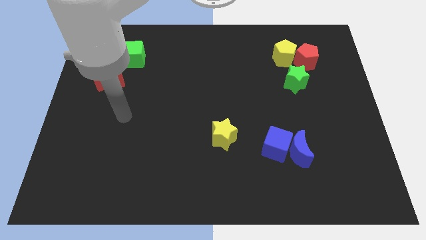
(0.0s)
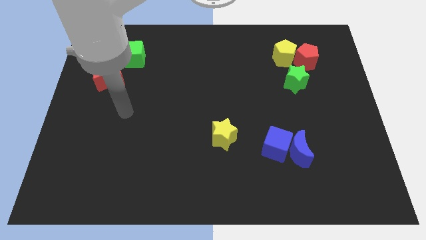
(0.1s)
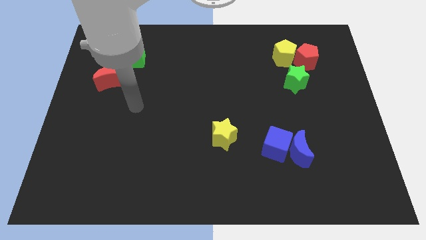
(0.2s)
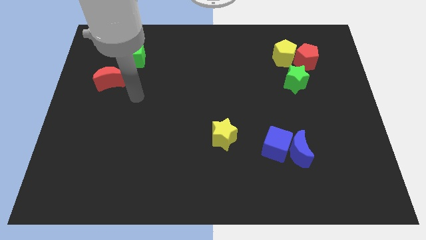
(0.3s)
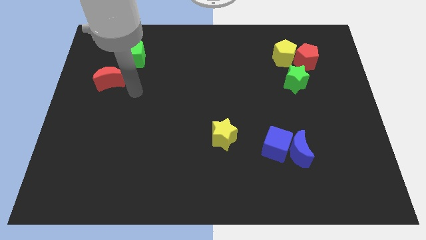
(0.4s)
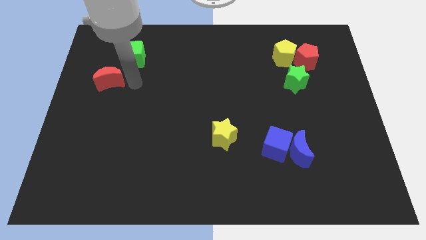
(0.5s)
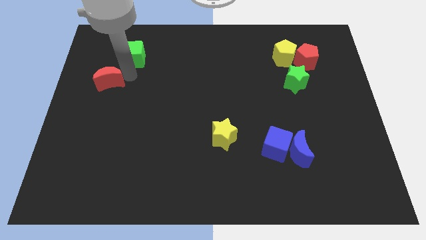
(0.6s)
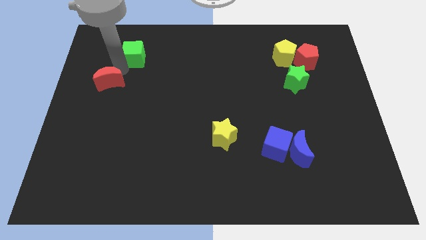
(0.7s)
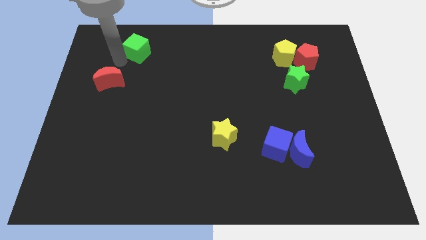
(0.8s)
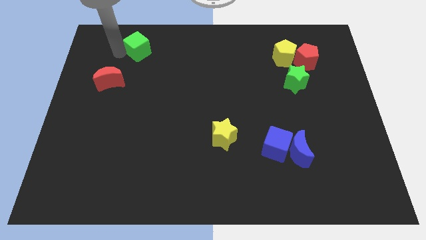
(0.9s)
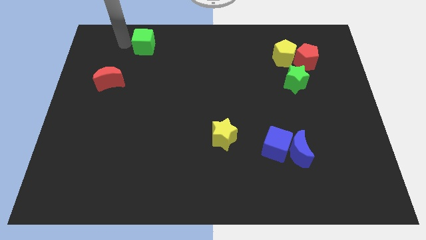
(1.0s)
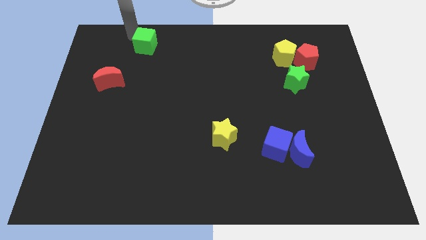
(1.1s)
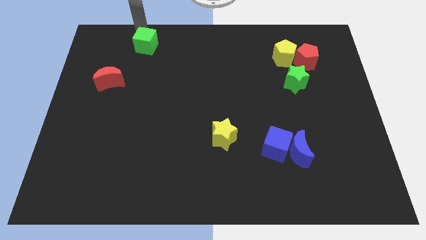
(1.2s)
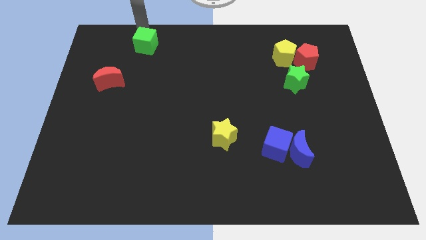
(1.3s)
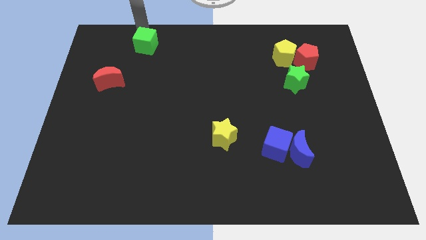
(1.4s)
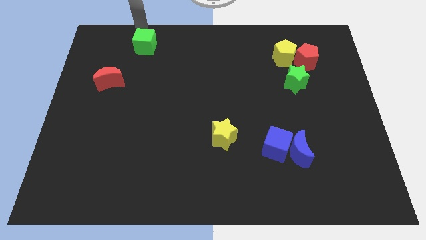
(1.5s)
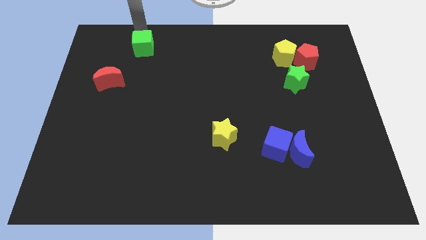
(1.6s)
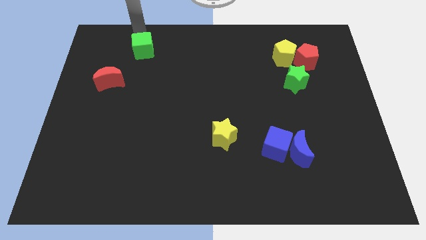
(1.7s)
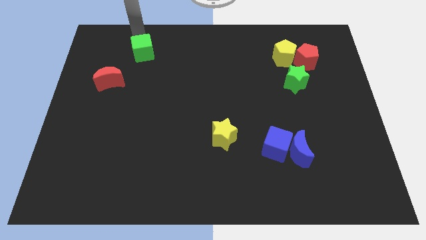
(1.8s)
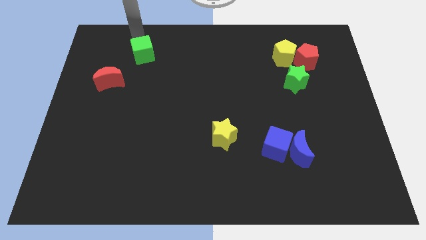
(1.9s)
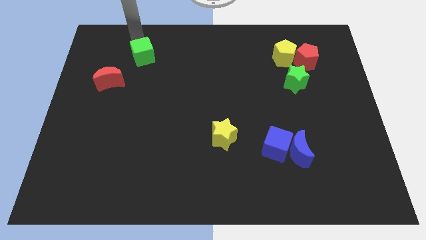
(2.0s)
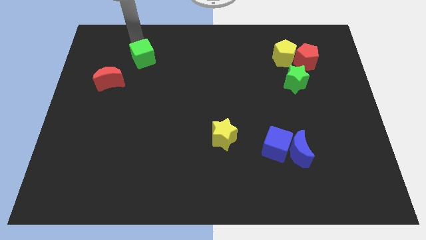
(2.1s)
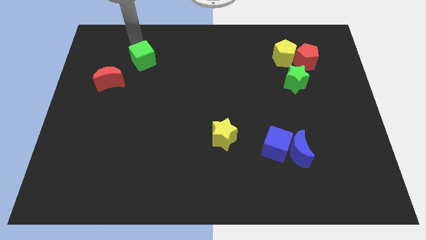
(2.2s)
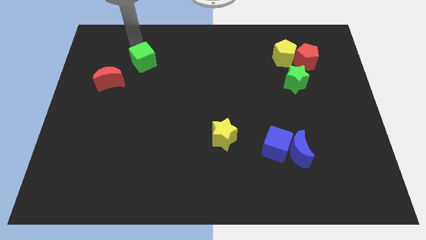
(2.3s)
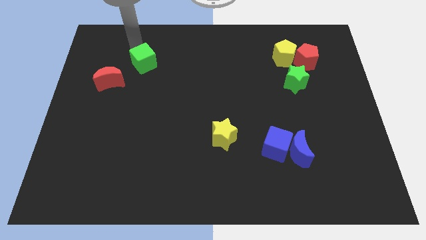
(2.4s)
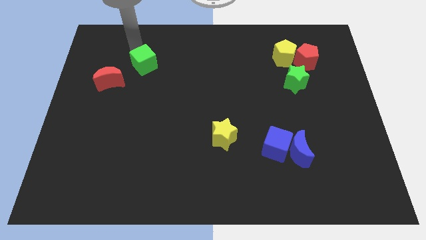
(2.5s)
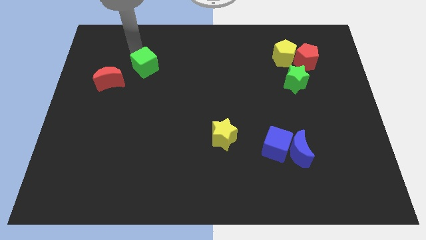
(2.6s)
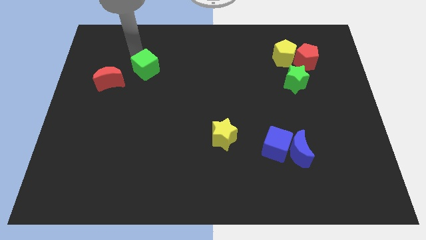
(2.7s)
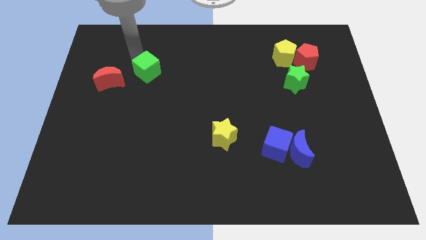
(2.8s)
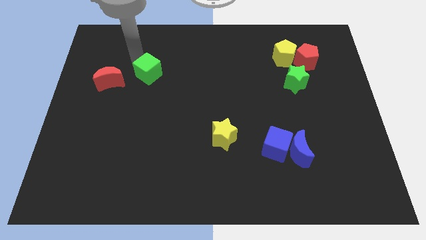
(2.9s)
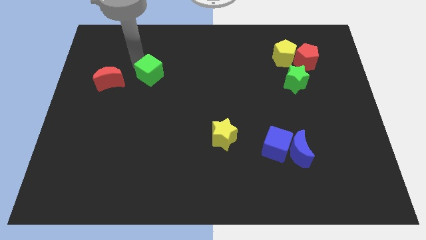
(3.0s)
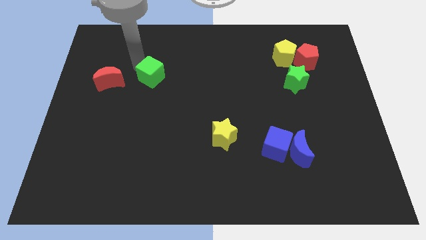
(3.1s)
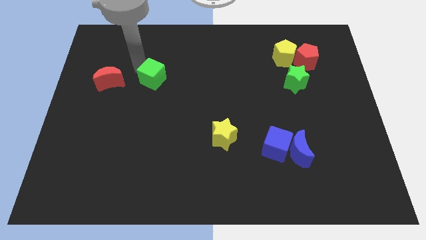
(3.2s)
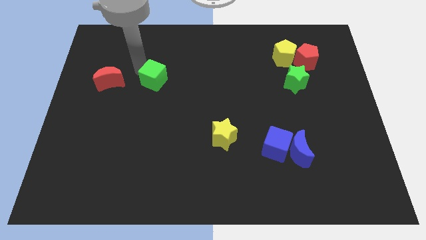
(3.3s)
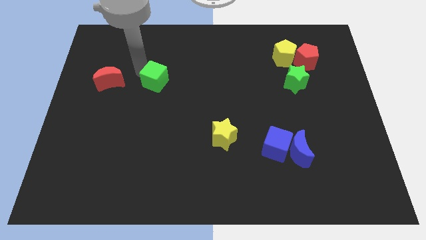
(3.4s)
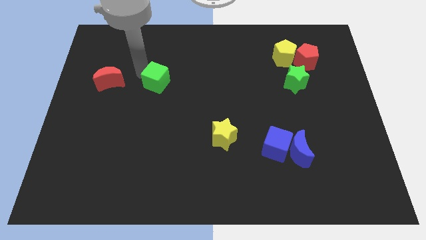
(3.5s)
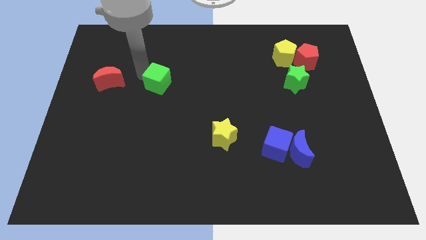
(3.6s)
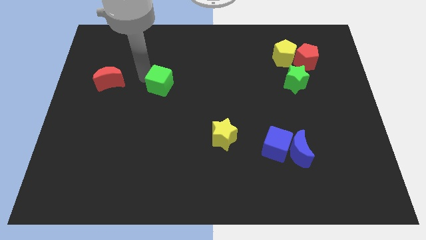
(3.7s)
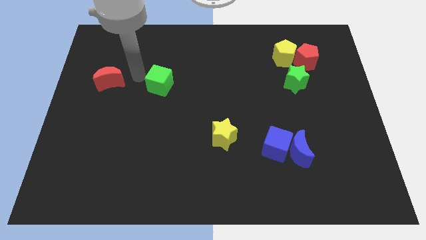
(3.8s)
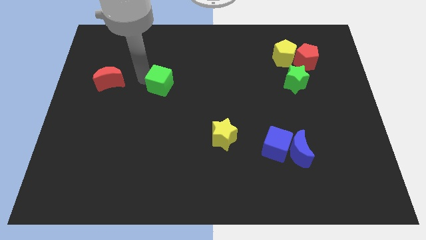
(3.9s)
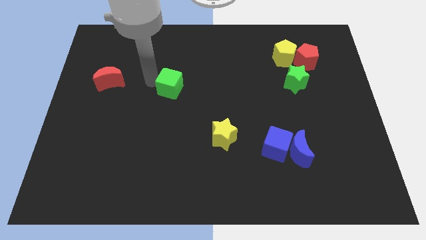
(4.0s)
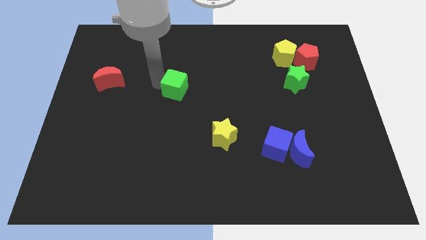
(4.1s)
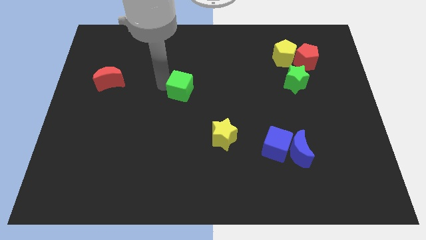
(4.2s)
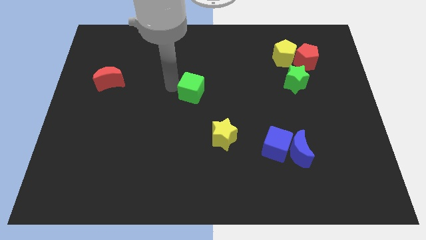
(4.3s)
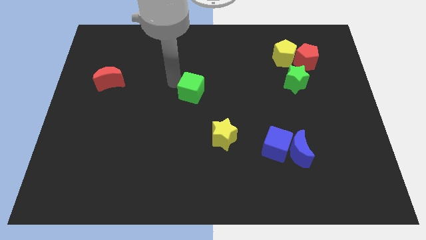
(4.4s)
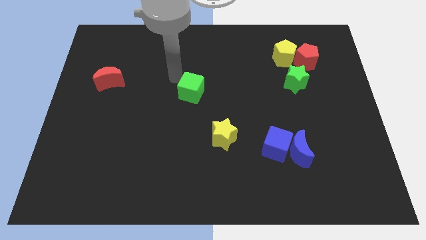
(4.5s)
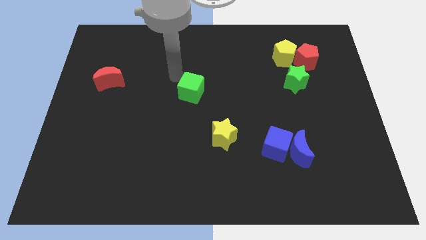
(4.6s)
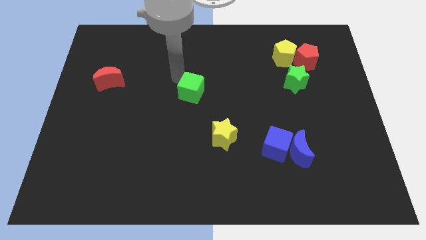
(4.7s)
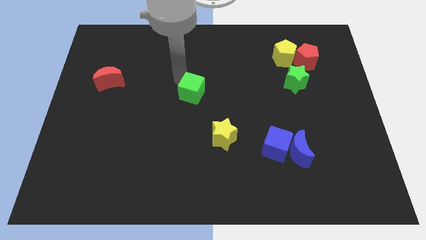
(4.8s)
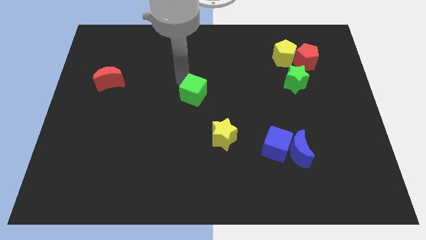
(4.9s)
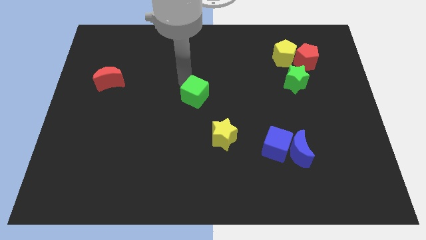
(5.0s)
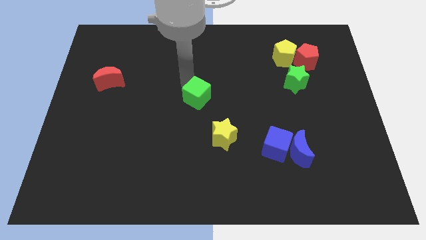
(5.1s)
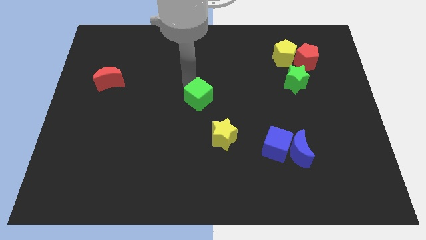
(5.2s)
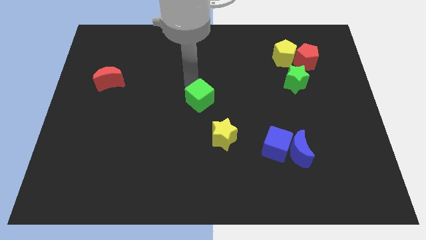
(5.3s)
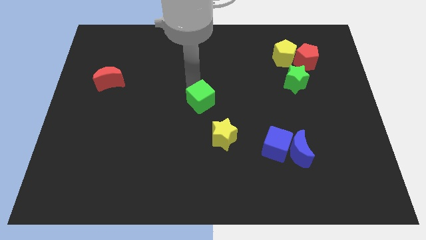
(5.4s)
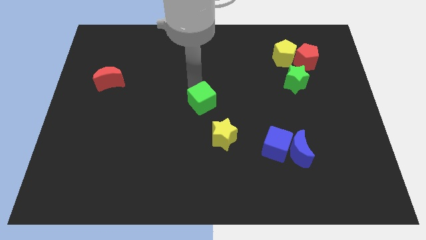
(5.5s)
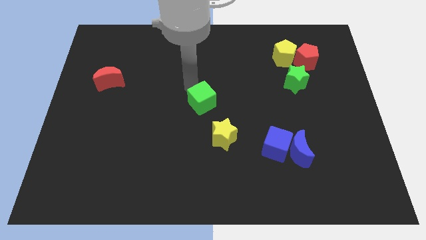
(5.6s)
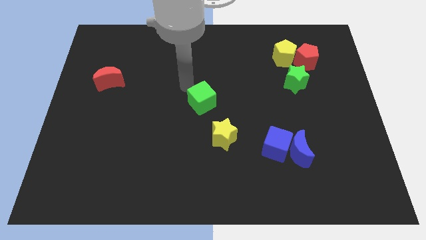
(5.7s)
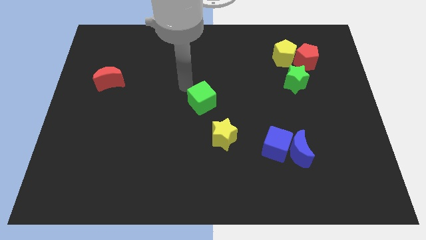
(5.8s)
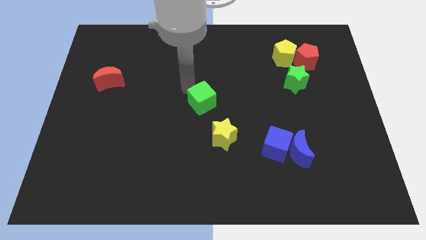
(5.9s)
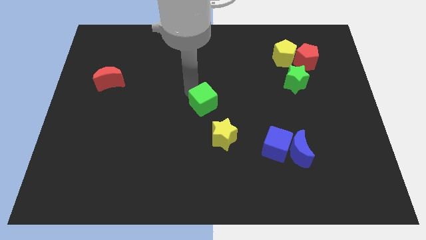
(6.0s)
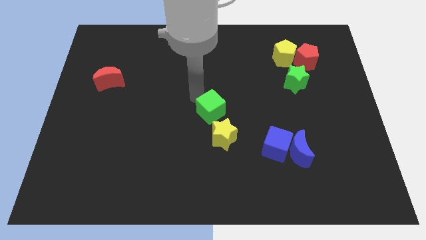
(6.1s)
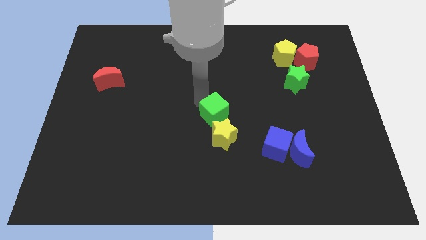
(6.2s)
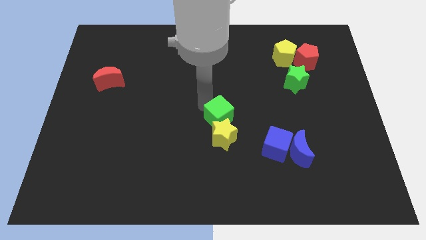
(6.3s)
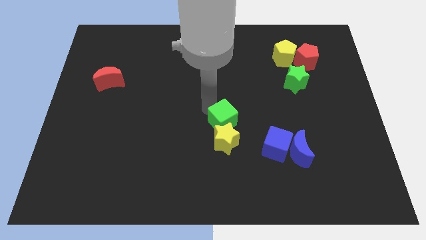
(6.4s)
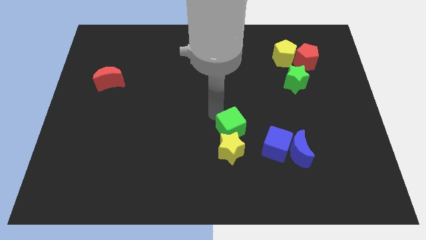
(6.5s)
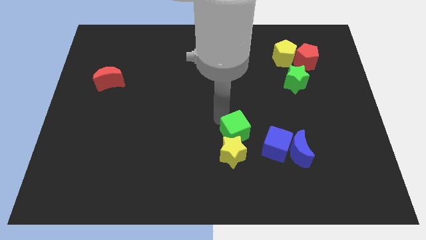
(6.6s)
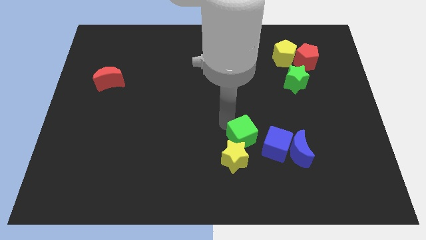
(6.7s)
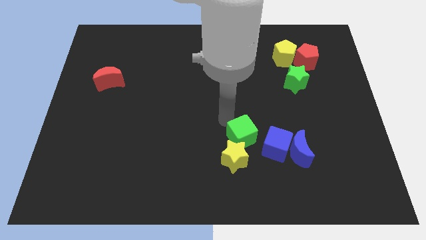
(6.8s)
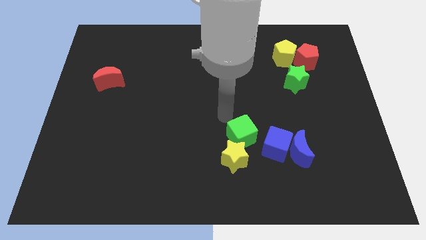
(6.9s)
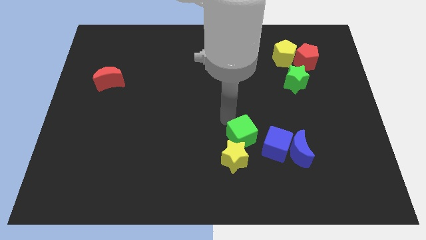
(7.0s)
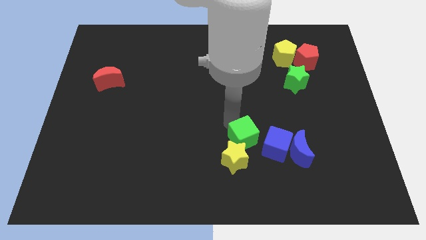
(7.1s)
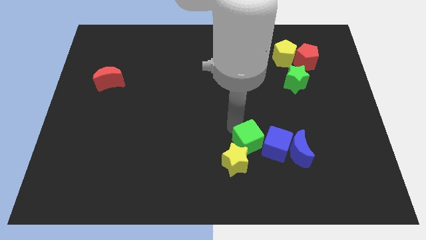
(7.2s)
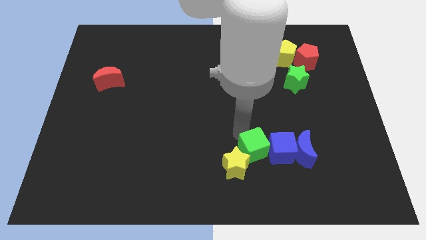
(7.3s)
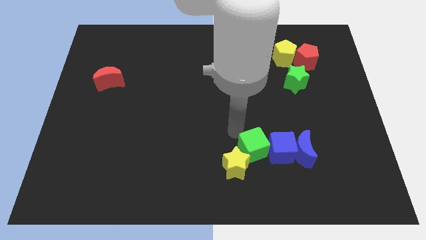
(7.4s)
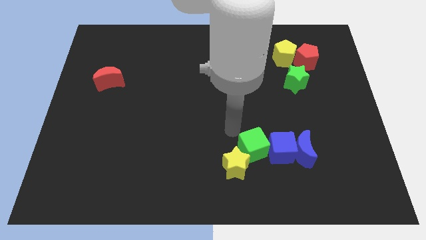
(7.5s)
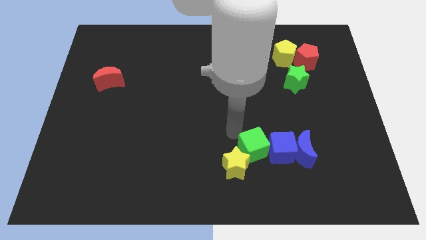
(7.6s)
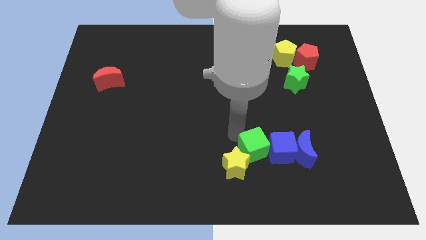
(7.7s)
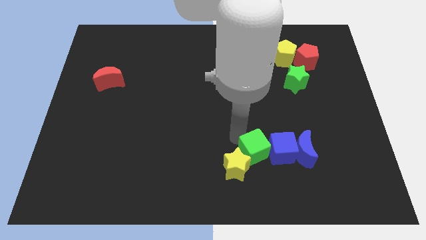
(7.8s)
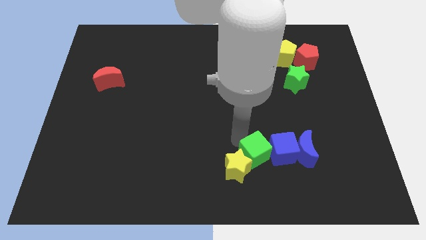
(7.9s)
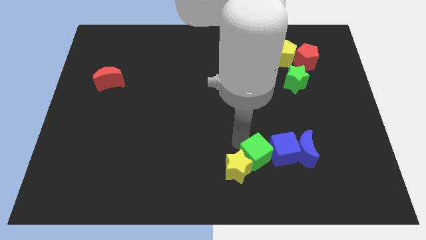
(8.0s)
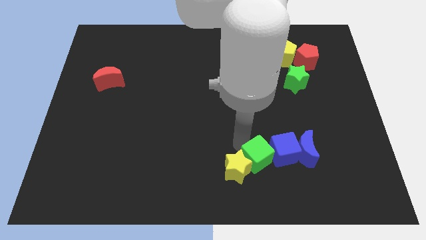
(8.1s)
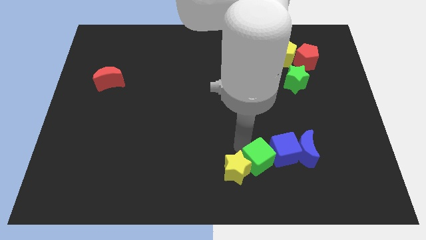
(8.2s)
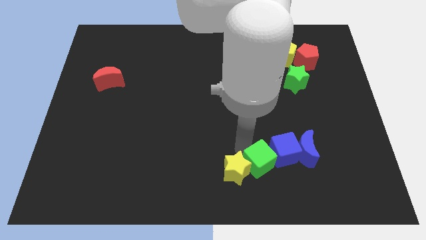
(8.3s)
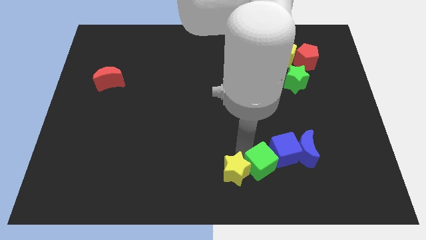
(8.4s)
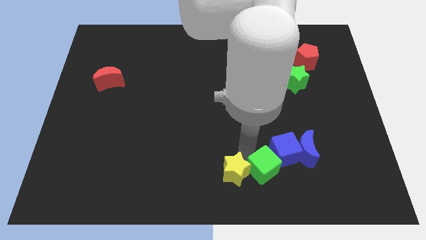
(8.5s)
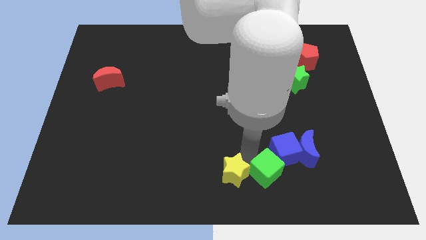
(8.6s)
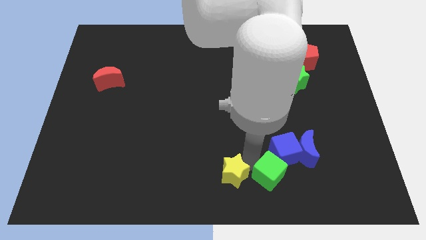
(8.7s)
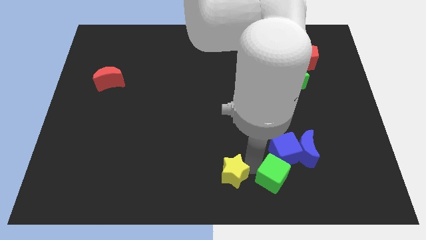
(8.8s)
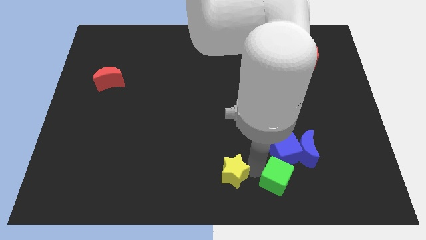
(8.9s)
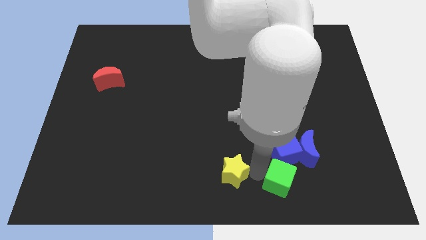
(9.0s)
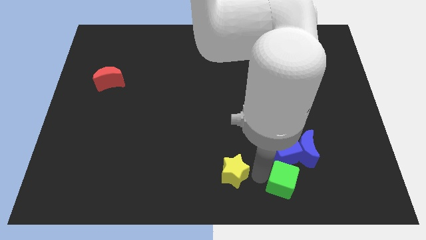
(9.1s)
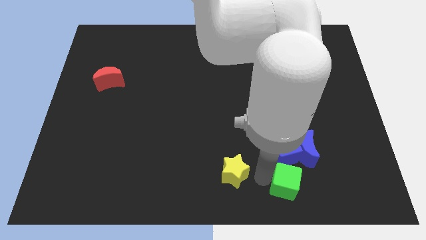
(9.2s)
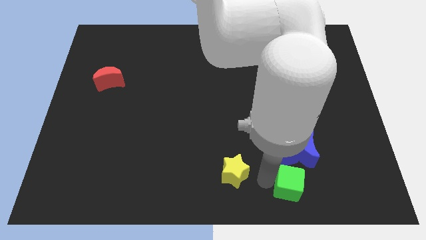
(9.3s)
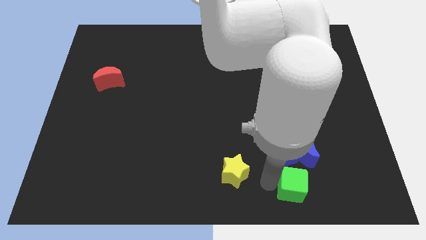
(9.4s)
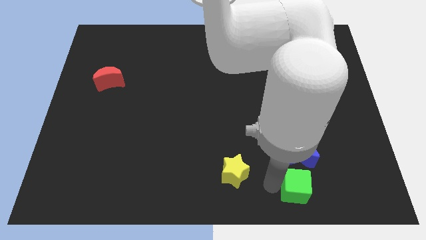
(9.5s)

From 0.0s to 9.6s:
put the green cube to the bottom right of the blue cube
